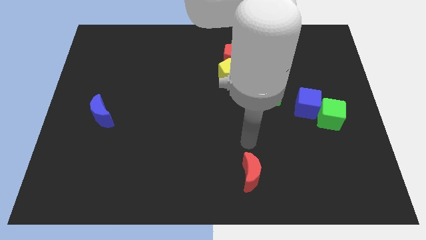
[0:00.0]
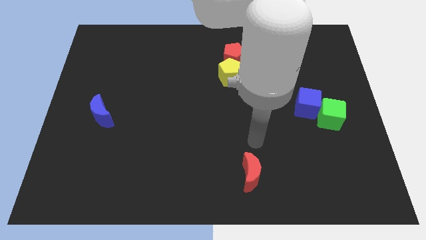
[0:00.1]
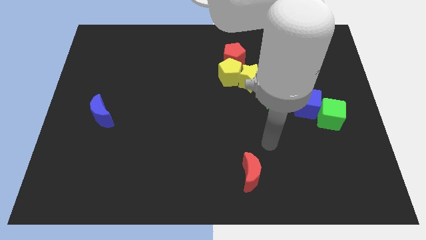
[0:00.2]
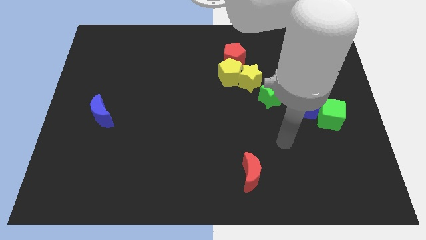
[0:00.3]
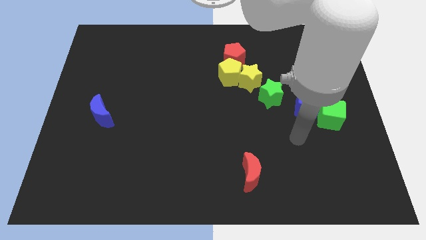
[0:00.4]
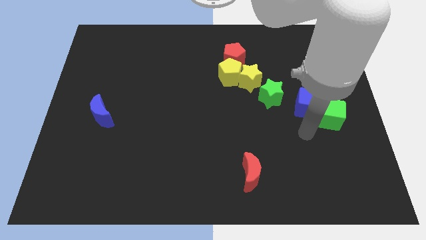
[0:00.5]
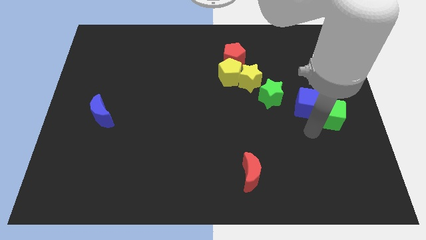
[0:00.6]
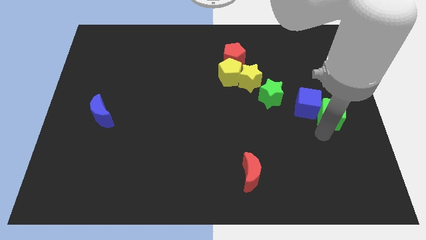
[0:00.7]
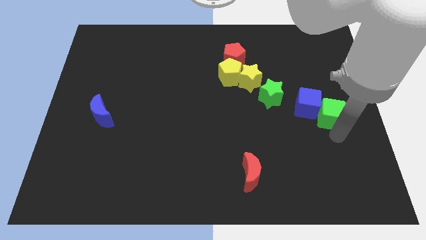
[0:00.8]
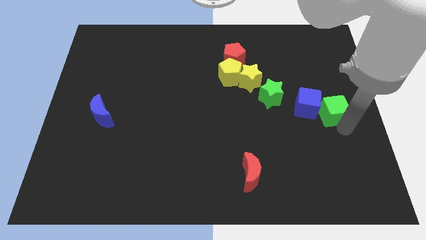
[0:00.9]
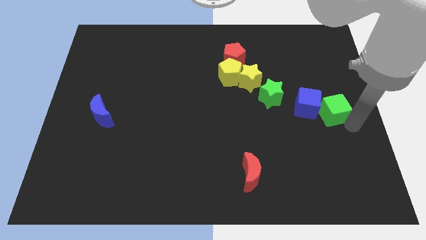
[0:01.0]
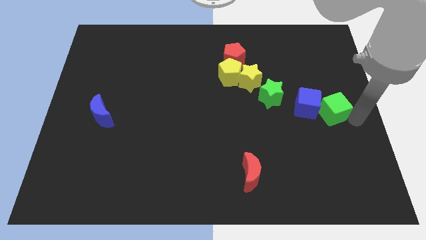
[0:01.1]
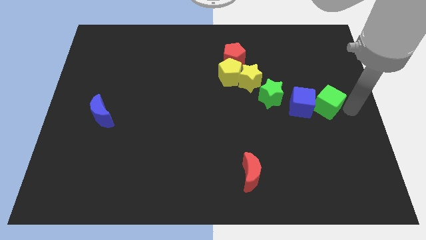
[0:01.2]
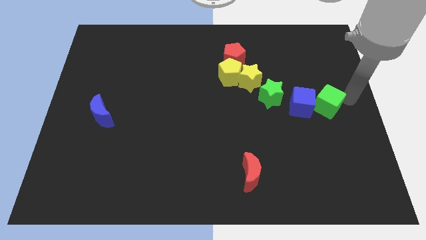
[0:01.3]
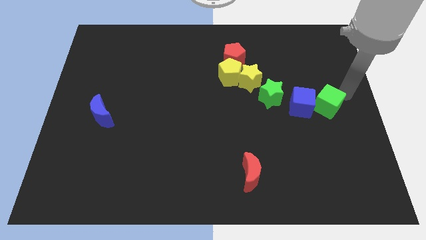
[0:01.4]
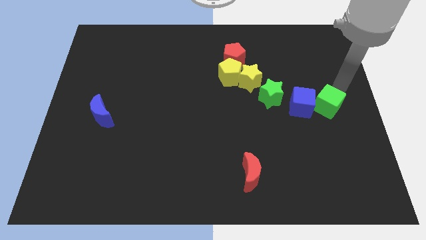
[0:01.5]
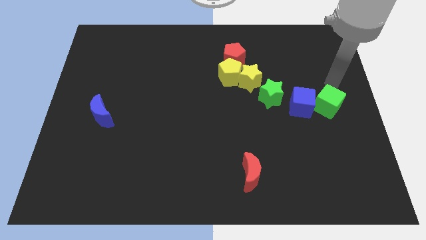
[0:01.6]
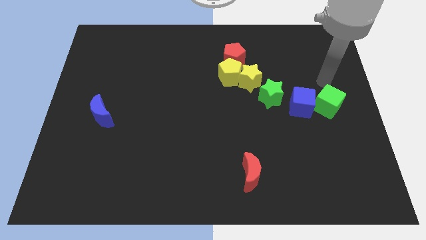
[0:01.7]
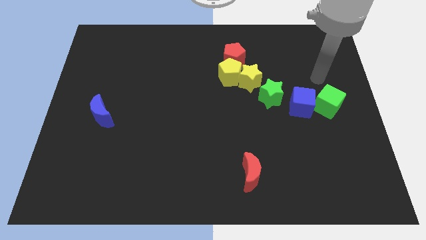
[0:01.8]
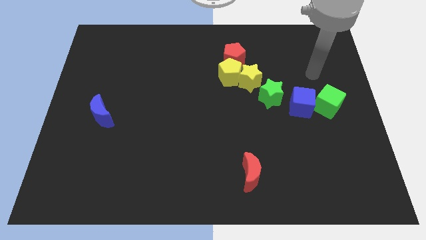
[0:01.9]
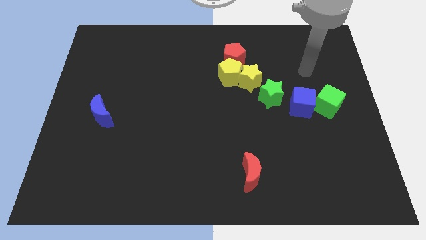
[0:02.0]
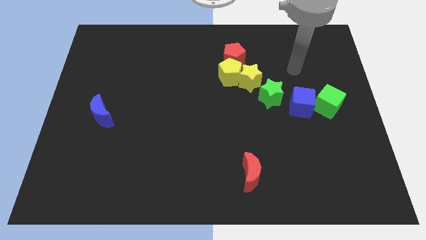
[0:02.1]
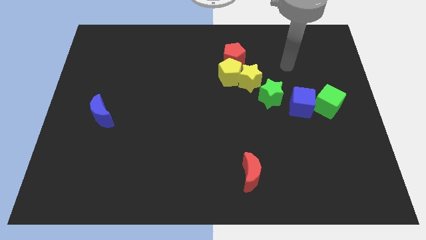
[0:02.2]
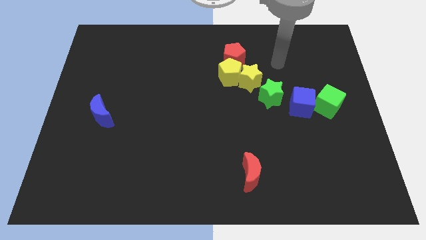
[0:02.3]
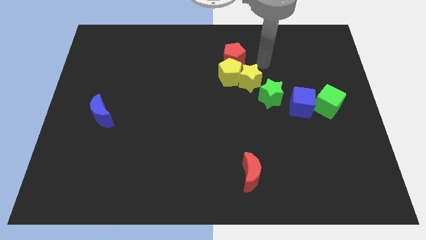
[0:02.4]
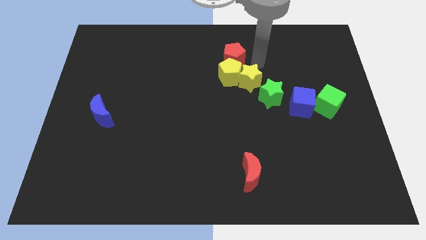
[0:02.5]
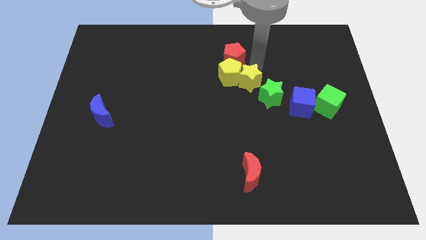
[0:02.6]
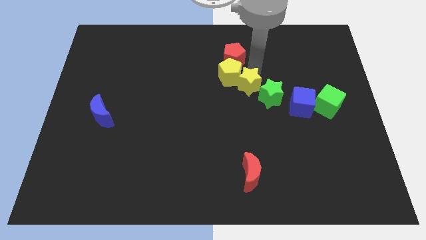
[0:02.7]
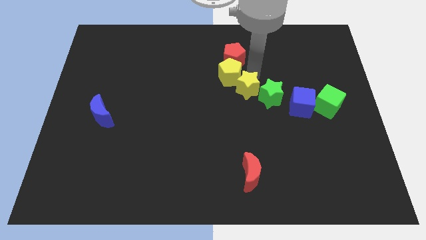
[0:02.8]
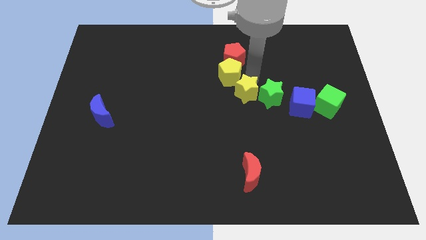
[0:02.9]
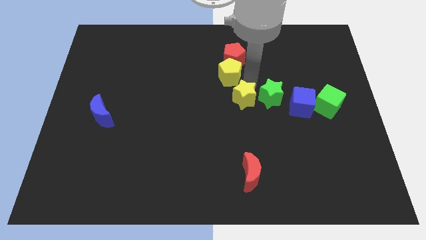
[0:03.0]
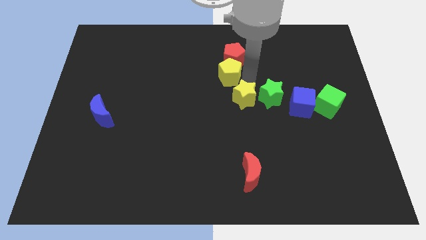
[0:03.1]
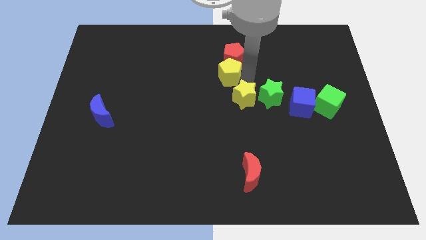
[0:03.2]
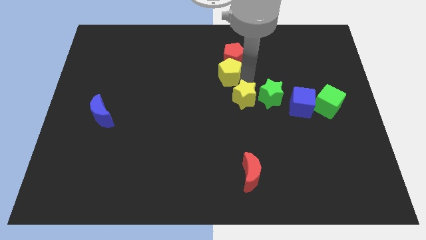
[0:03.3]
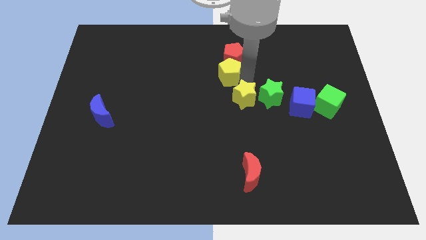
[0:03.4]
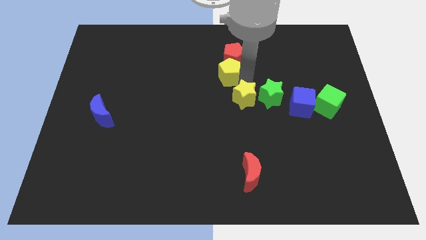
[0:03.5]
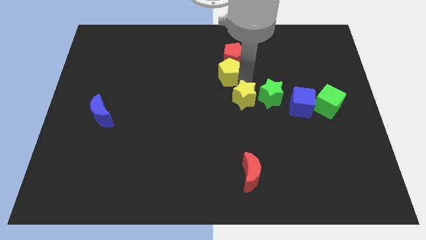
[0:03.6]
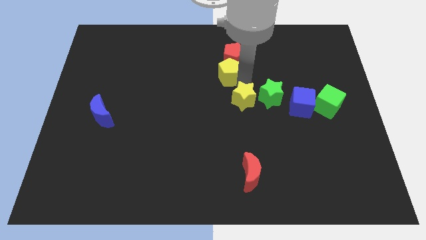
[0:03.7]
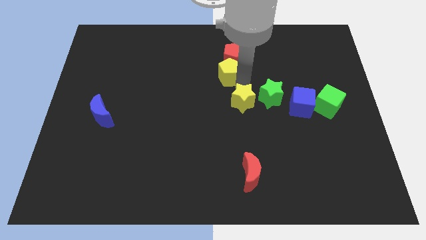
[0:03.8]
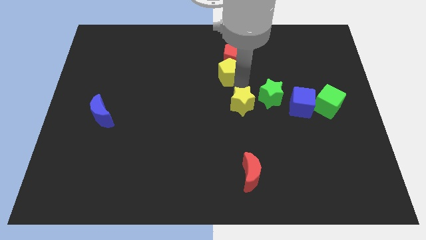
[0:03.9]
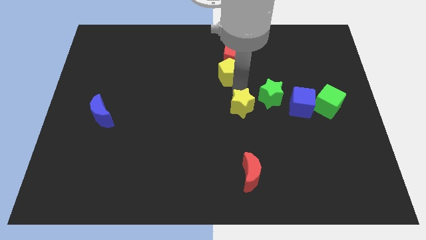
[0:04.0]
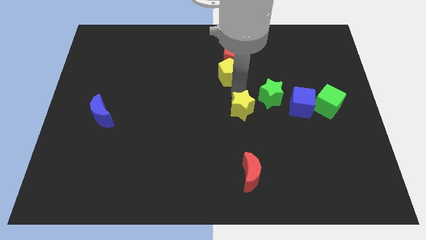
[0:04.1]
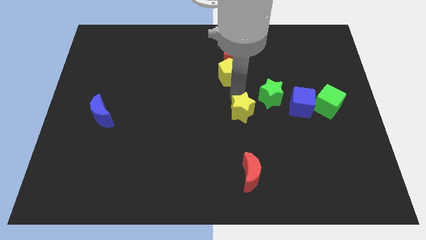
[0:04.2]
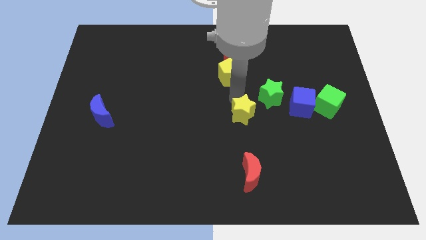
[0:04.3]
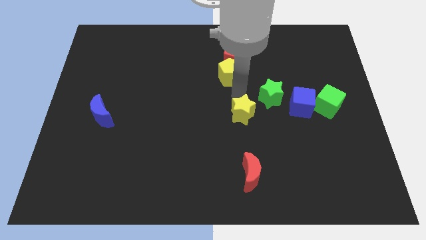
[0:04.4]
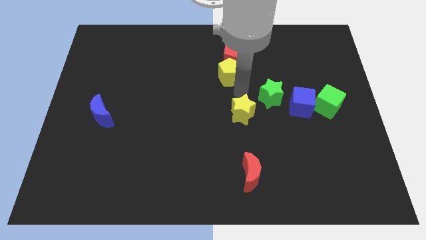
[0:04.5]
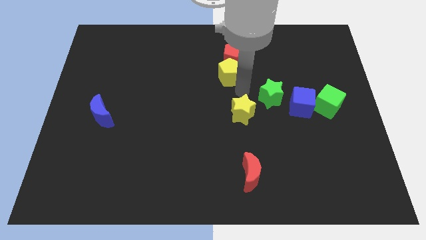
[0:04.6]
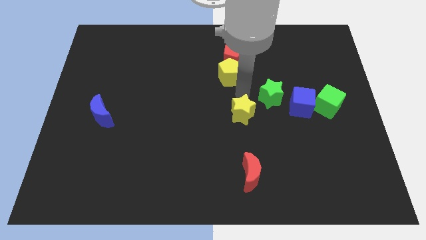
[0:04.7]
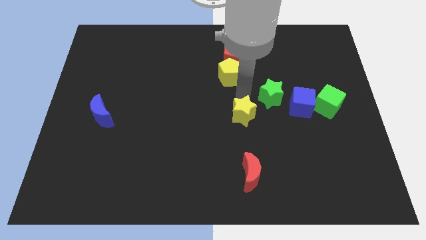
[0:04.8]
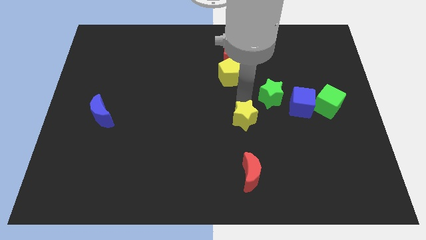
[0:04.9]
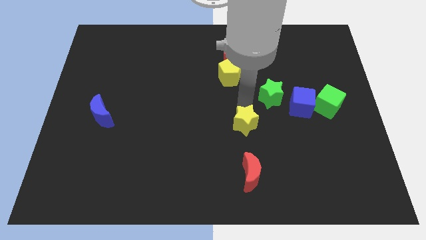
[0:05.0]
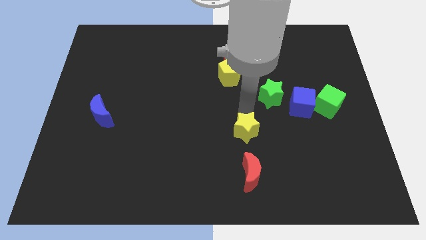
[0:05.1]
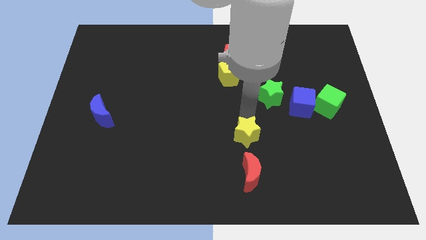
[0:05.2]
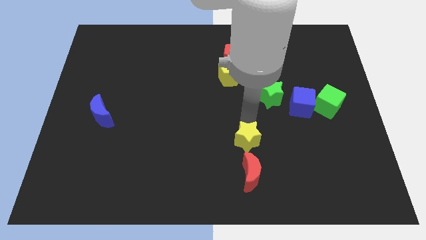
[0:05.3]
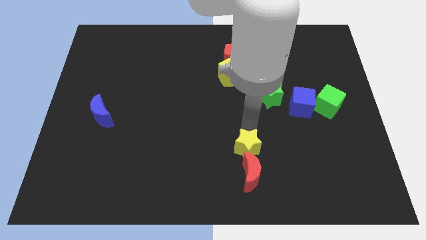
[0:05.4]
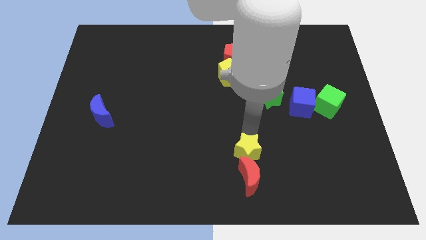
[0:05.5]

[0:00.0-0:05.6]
slide the yellow star to the red moon
